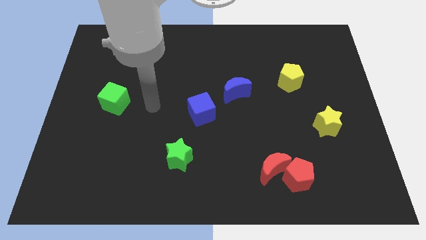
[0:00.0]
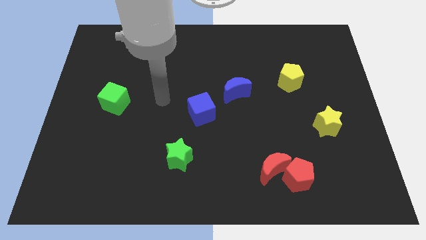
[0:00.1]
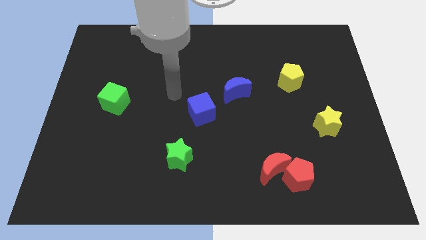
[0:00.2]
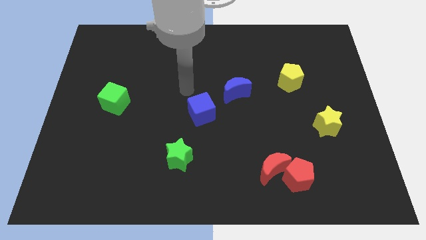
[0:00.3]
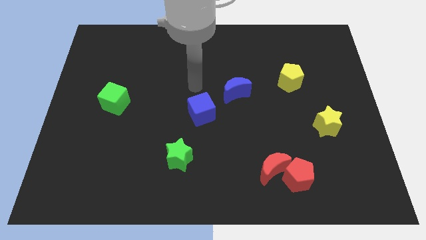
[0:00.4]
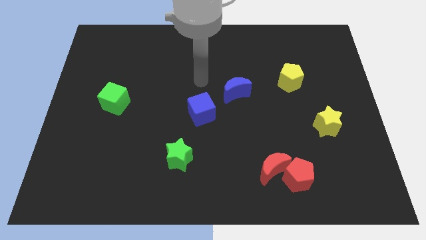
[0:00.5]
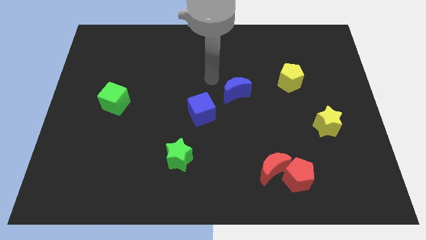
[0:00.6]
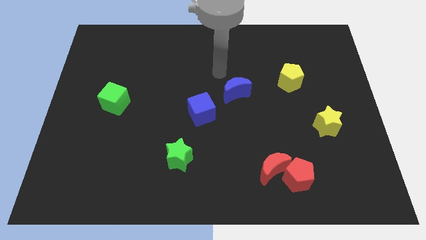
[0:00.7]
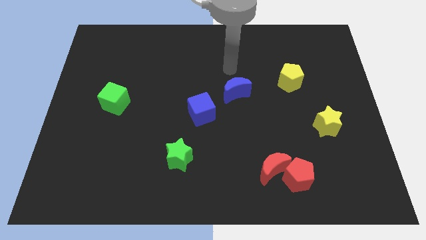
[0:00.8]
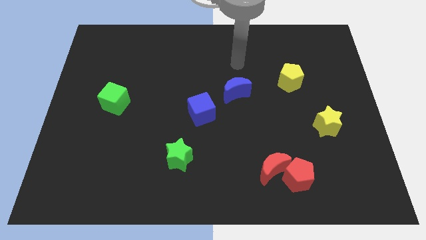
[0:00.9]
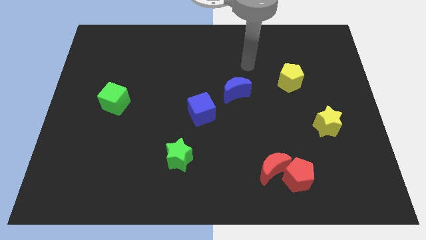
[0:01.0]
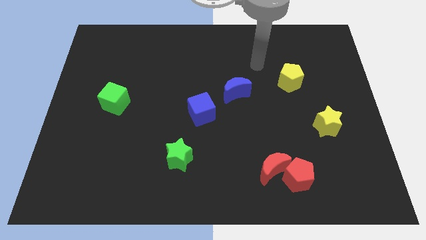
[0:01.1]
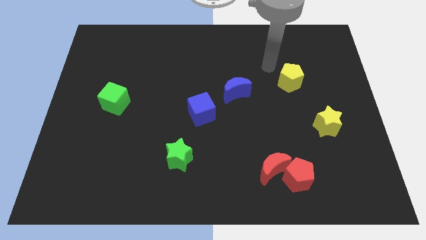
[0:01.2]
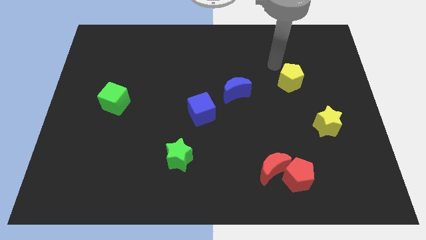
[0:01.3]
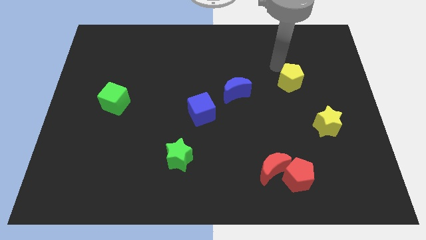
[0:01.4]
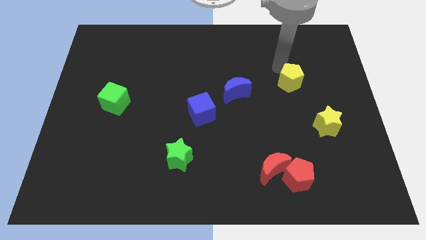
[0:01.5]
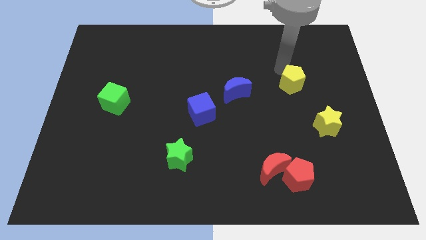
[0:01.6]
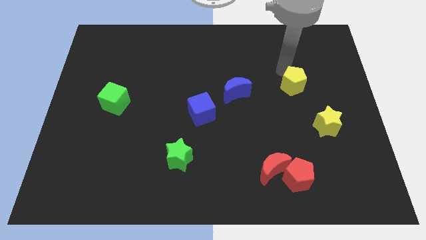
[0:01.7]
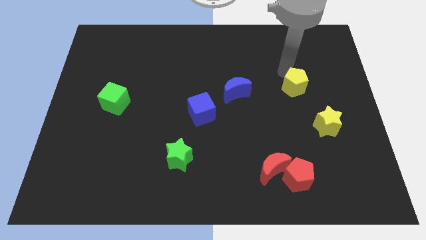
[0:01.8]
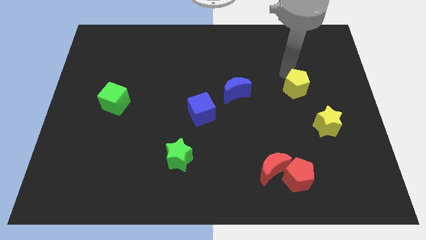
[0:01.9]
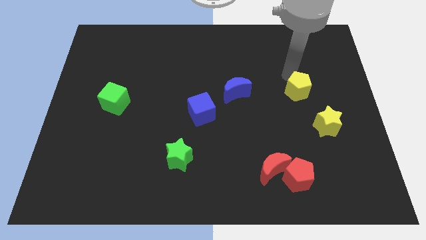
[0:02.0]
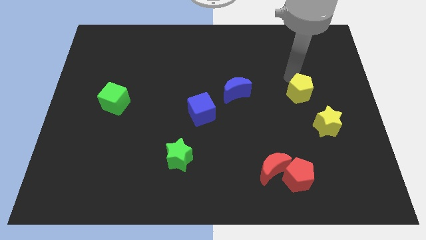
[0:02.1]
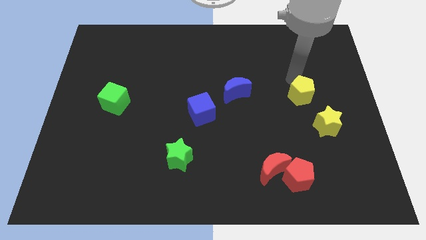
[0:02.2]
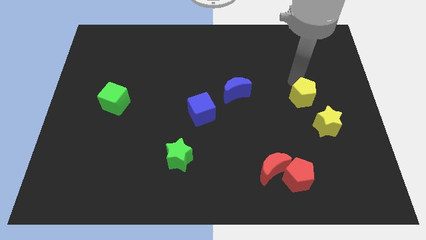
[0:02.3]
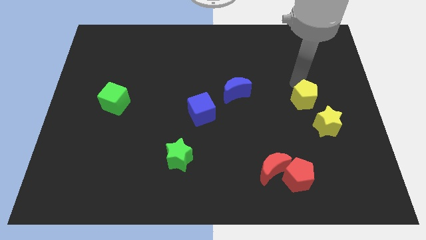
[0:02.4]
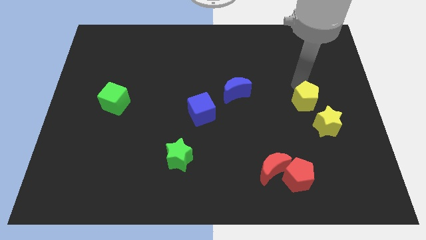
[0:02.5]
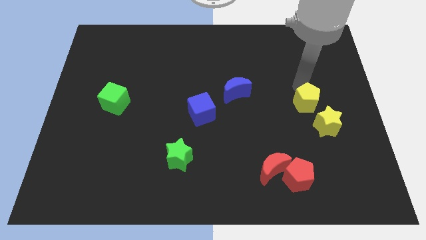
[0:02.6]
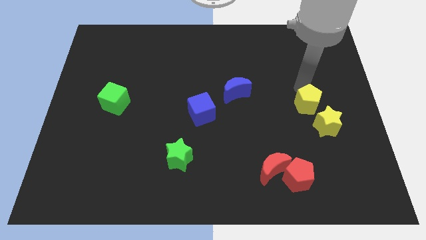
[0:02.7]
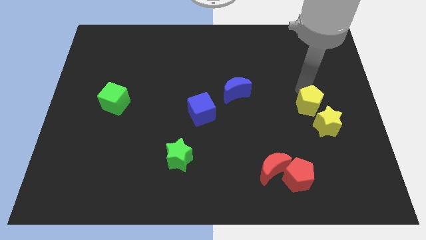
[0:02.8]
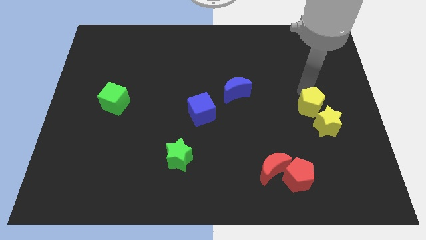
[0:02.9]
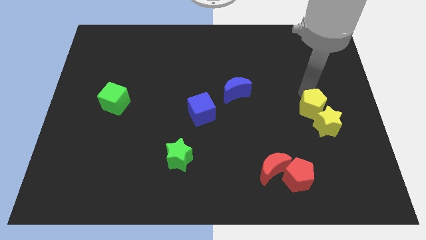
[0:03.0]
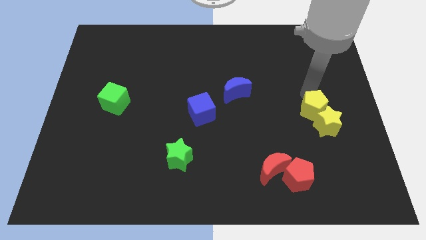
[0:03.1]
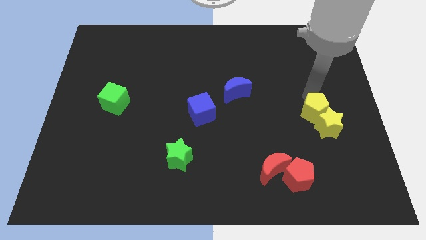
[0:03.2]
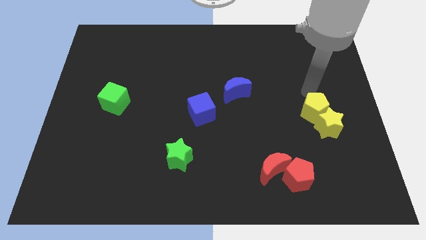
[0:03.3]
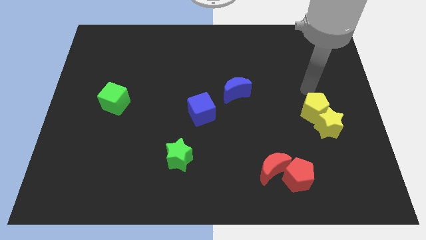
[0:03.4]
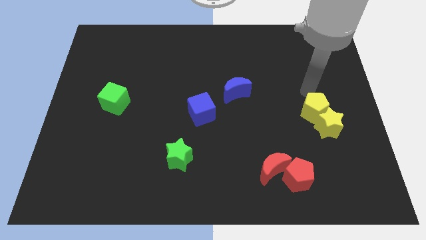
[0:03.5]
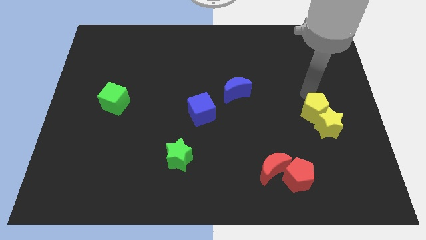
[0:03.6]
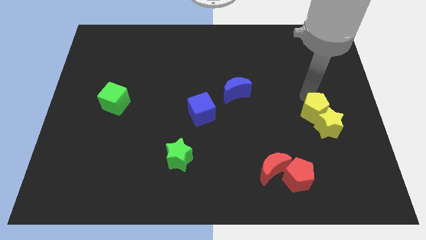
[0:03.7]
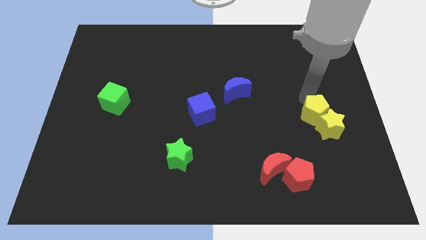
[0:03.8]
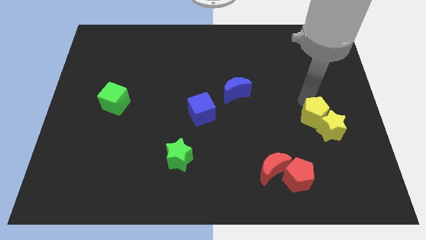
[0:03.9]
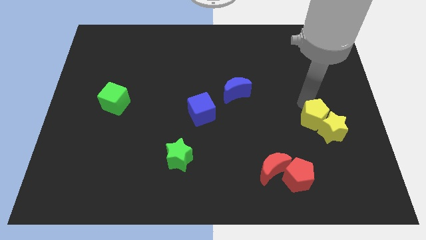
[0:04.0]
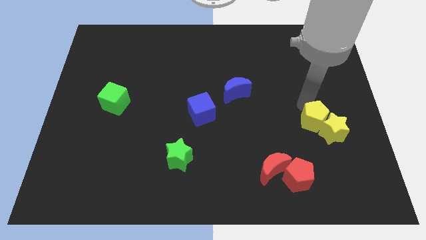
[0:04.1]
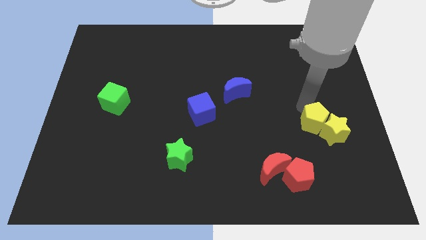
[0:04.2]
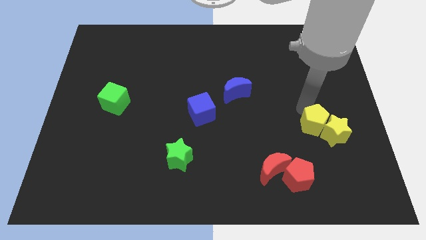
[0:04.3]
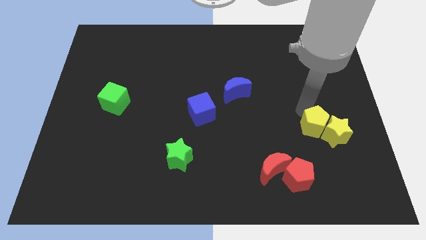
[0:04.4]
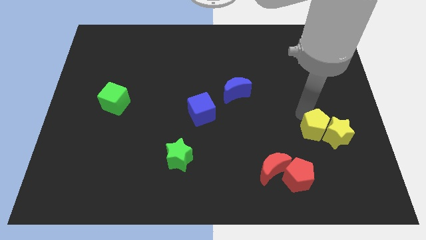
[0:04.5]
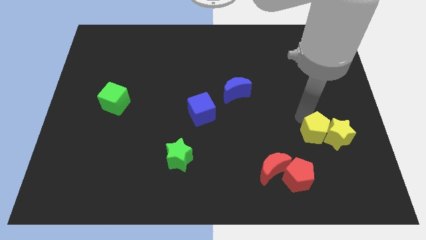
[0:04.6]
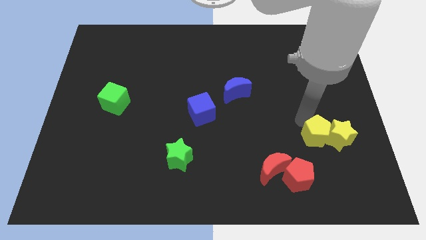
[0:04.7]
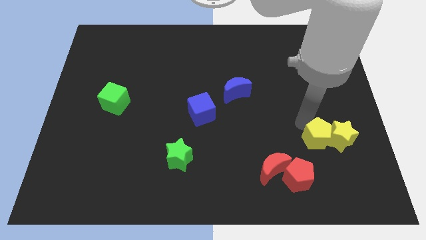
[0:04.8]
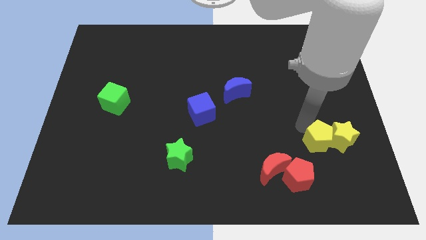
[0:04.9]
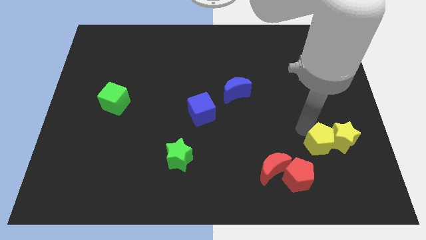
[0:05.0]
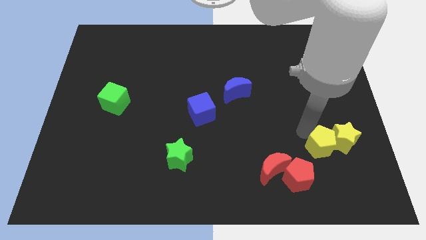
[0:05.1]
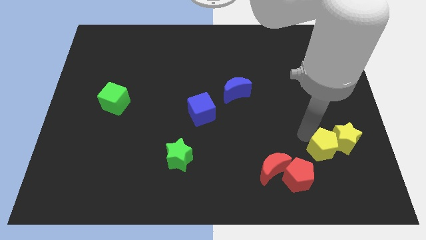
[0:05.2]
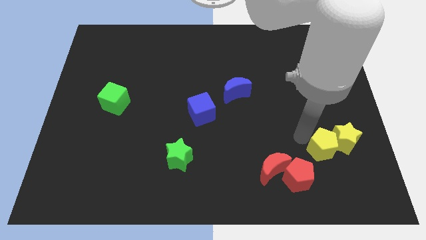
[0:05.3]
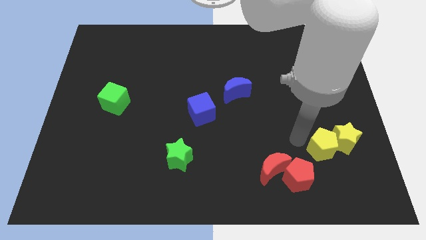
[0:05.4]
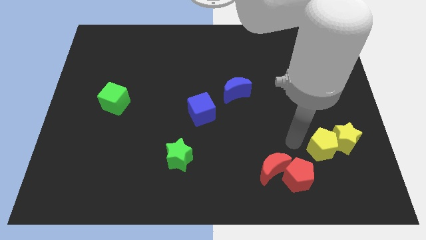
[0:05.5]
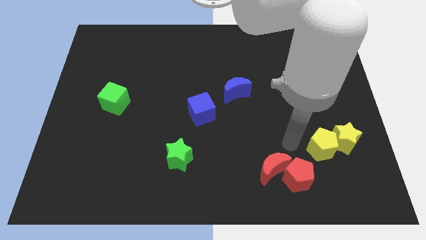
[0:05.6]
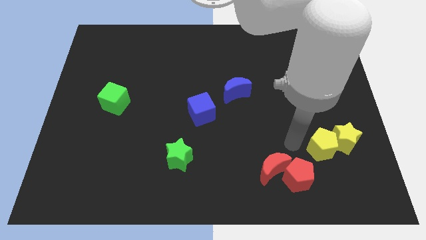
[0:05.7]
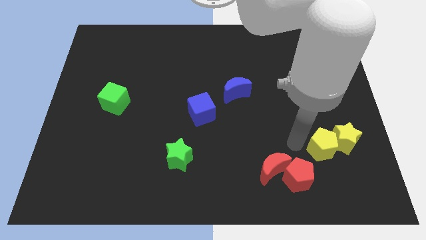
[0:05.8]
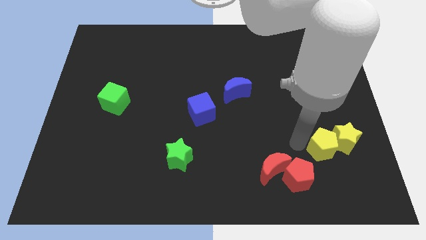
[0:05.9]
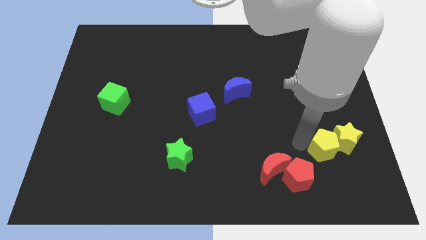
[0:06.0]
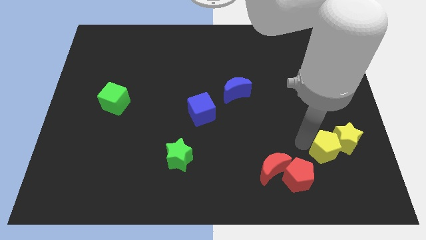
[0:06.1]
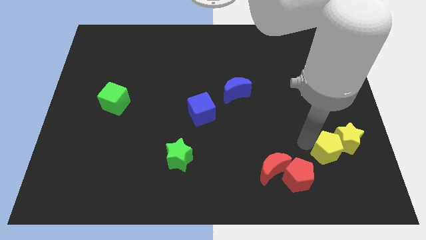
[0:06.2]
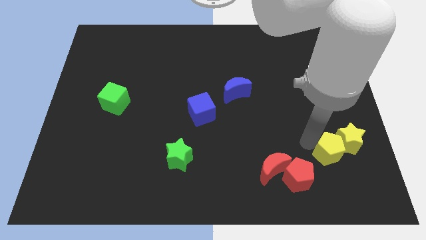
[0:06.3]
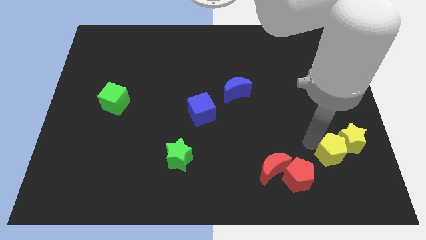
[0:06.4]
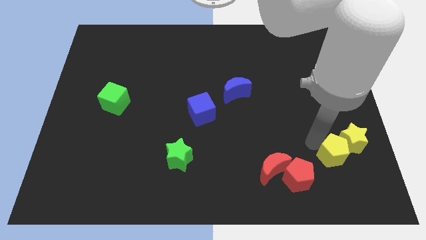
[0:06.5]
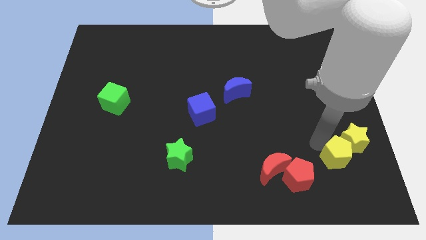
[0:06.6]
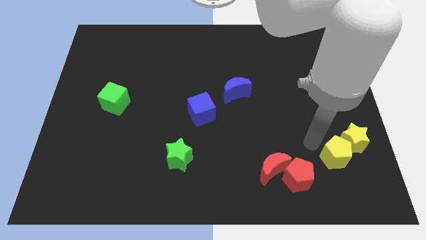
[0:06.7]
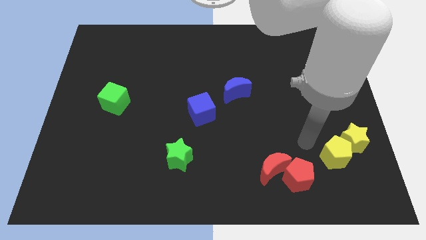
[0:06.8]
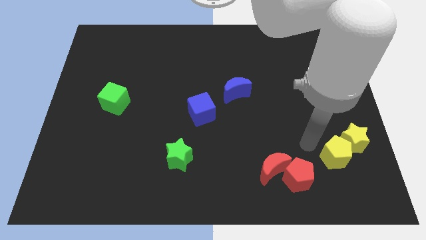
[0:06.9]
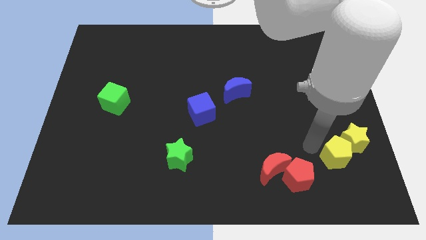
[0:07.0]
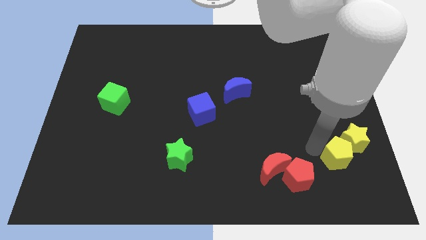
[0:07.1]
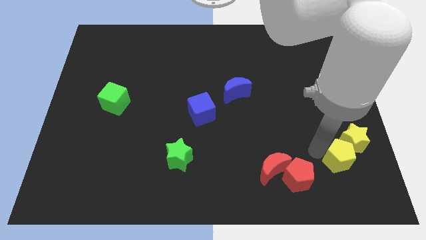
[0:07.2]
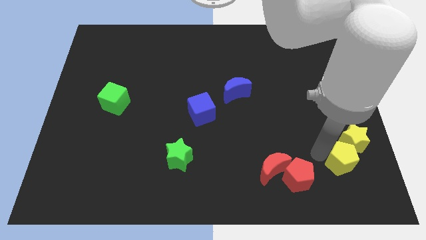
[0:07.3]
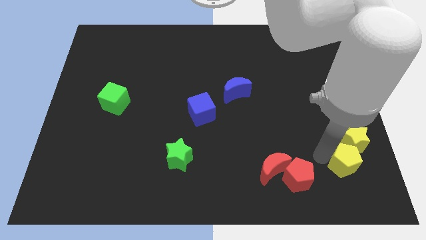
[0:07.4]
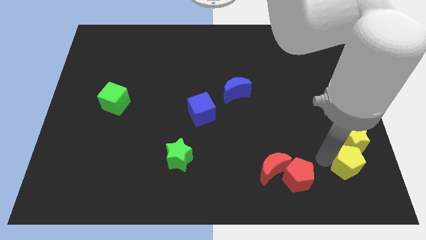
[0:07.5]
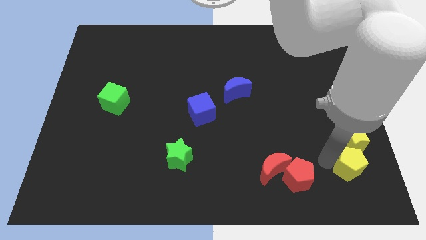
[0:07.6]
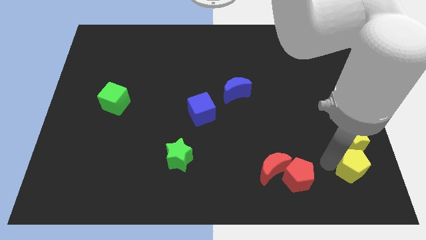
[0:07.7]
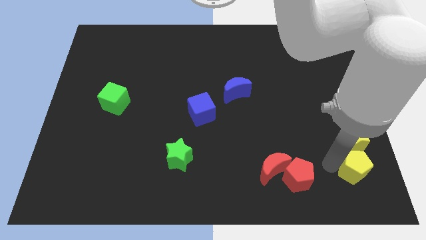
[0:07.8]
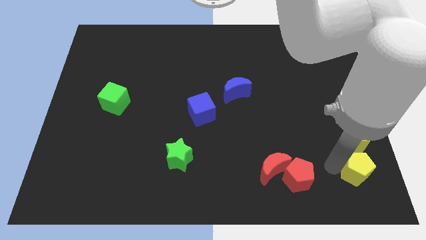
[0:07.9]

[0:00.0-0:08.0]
put the yellow pentagon to the lower right corner
